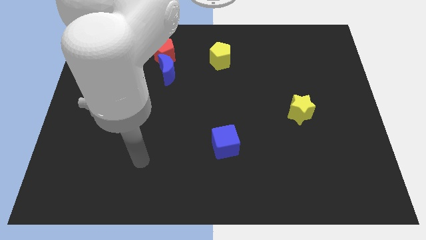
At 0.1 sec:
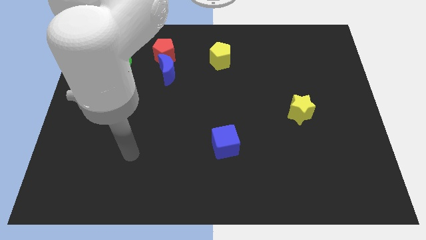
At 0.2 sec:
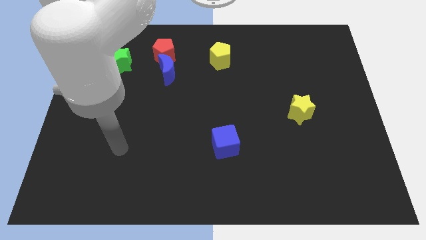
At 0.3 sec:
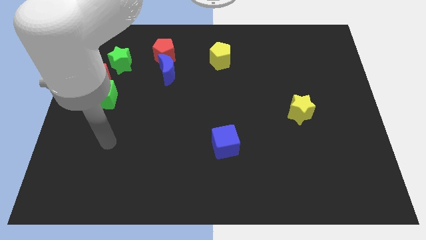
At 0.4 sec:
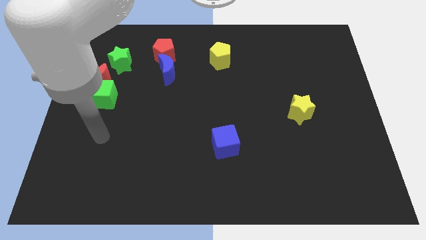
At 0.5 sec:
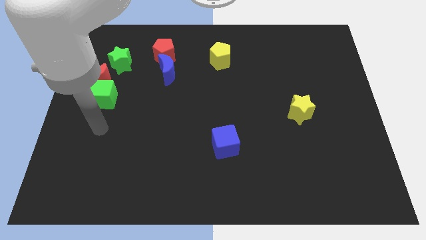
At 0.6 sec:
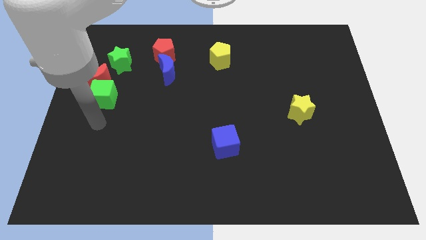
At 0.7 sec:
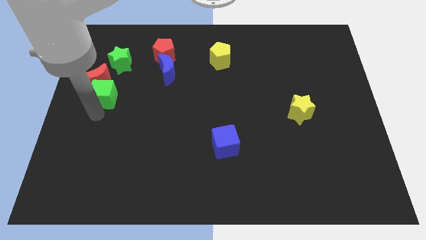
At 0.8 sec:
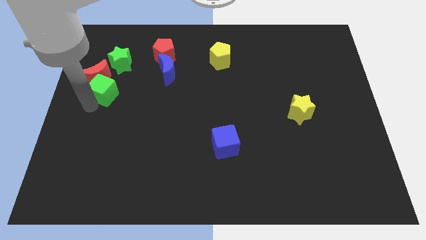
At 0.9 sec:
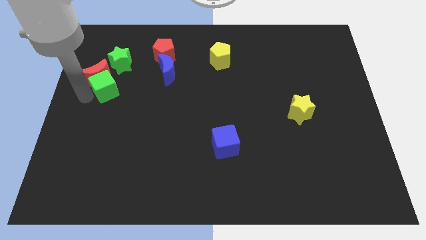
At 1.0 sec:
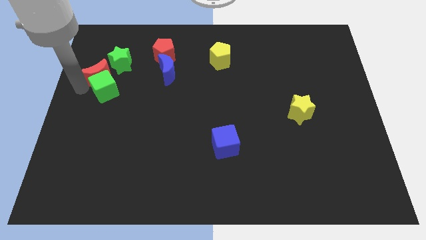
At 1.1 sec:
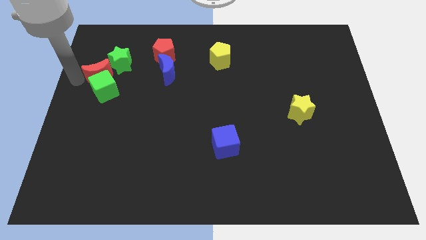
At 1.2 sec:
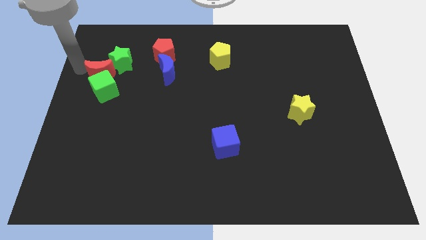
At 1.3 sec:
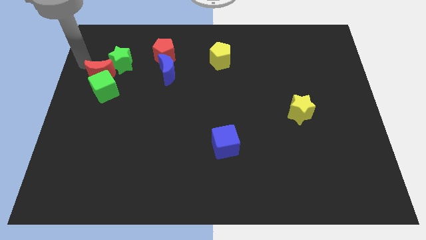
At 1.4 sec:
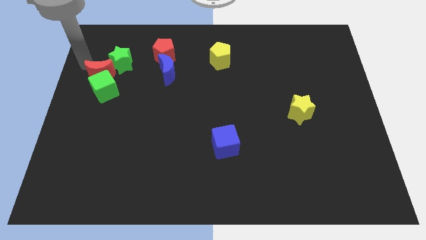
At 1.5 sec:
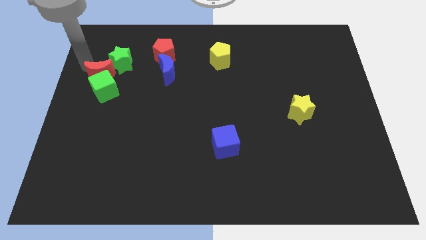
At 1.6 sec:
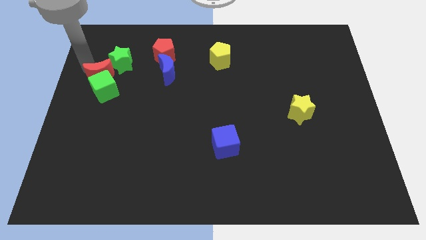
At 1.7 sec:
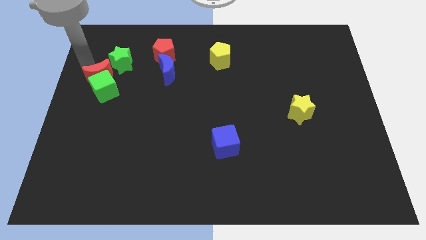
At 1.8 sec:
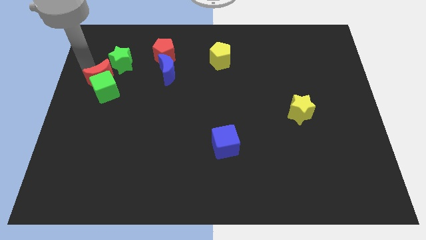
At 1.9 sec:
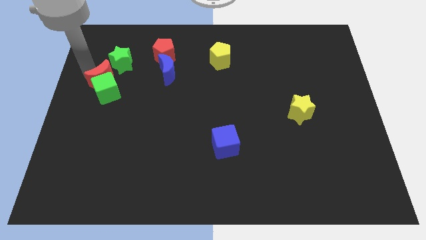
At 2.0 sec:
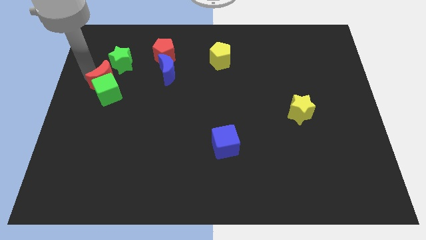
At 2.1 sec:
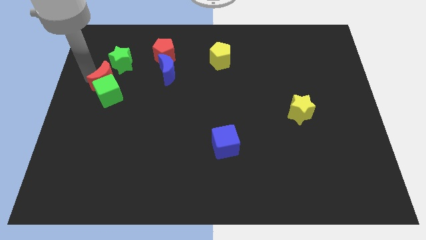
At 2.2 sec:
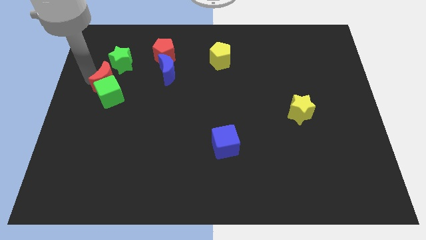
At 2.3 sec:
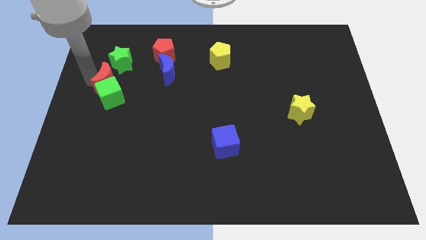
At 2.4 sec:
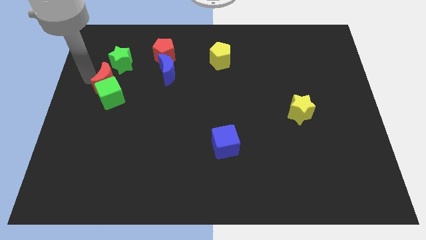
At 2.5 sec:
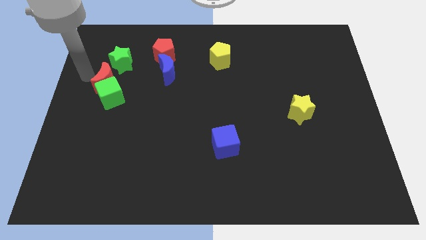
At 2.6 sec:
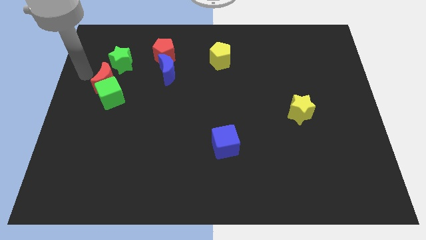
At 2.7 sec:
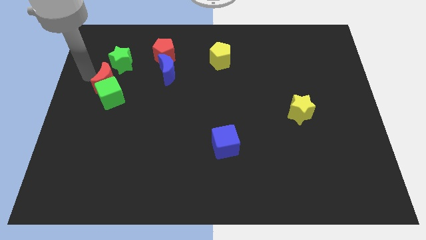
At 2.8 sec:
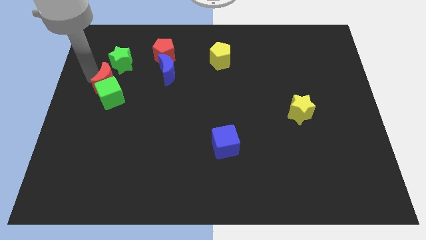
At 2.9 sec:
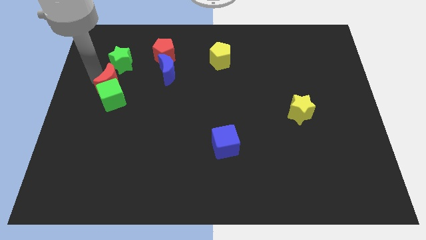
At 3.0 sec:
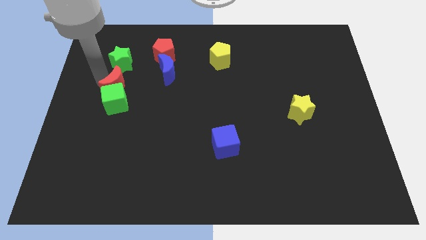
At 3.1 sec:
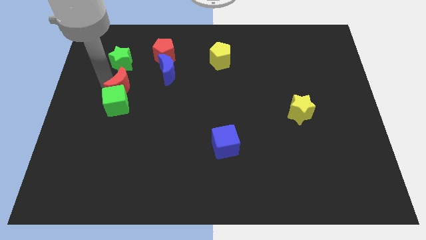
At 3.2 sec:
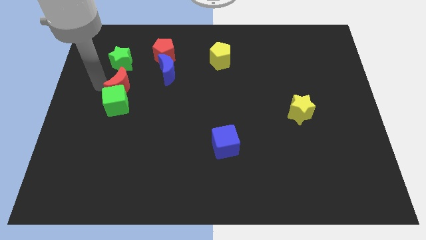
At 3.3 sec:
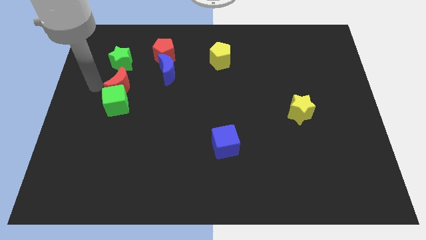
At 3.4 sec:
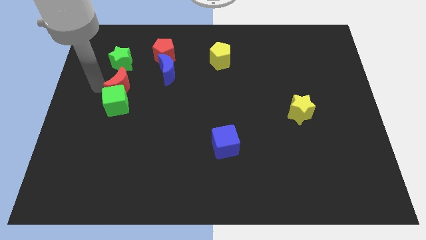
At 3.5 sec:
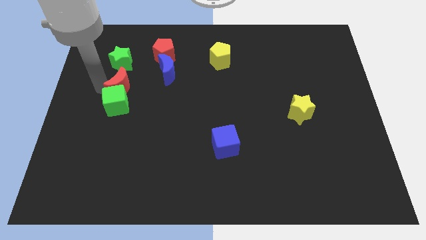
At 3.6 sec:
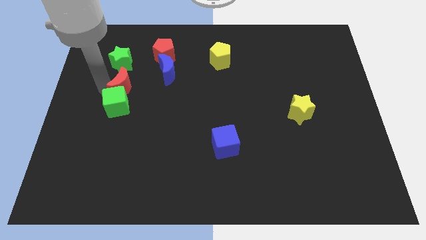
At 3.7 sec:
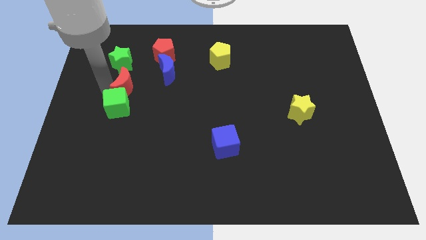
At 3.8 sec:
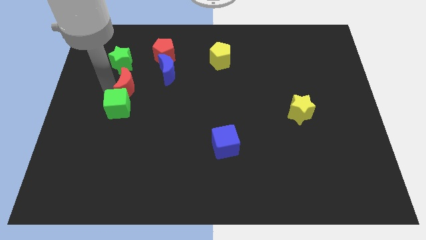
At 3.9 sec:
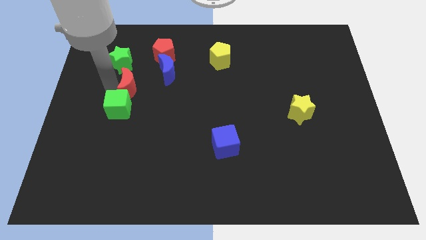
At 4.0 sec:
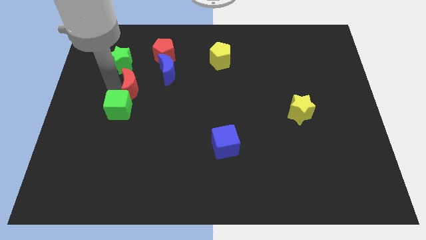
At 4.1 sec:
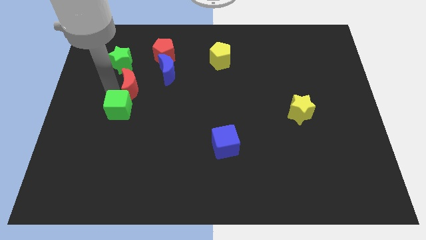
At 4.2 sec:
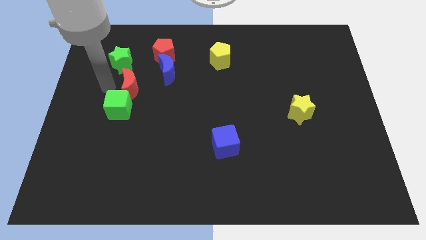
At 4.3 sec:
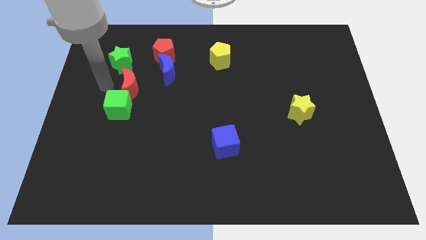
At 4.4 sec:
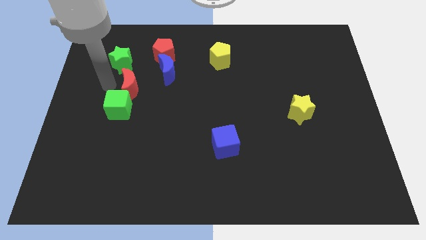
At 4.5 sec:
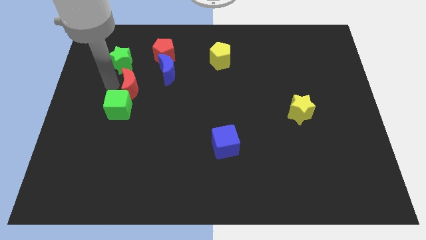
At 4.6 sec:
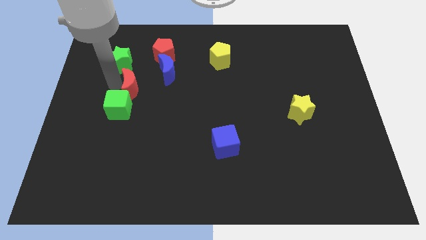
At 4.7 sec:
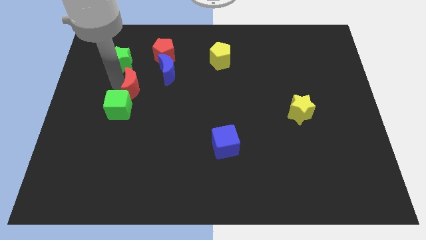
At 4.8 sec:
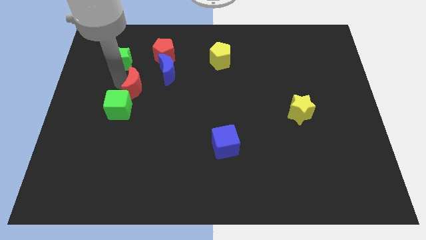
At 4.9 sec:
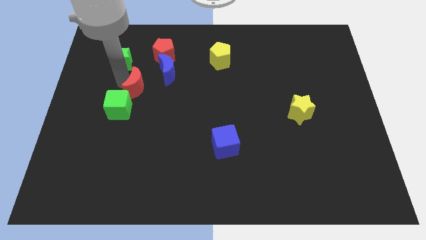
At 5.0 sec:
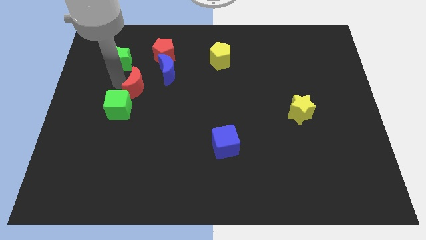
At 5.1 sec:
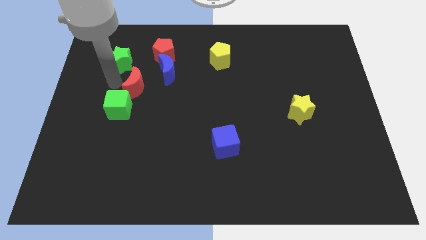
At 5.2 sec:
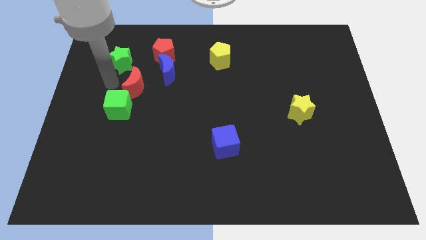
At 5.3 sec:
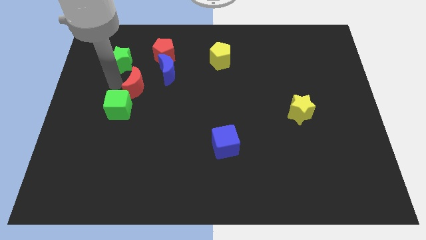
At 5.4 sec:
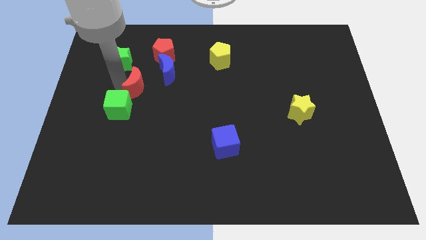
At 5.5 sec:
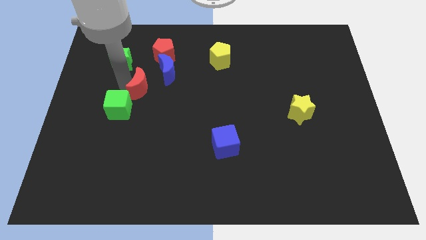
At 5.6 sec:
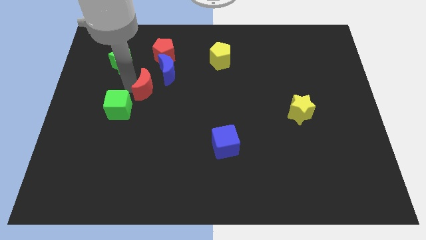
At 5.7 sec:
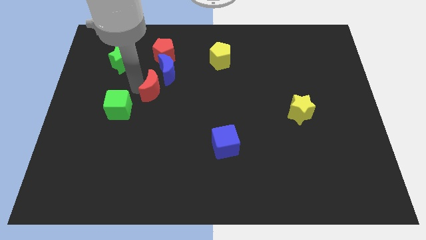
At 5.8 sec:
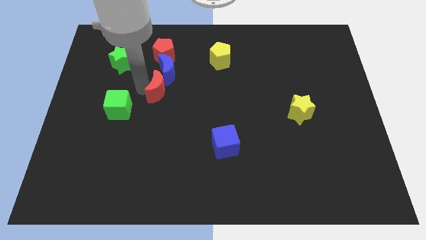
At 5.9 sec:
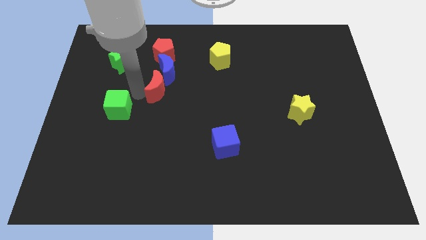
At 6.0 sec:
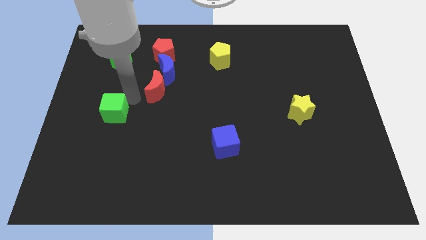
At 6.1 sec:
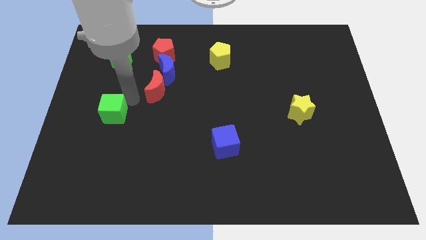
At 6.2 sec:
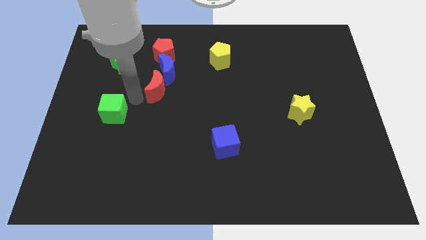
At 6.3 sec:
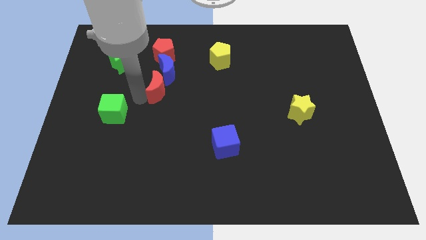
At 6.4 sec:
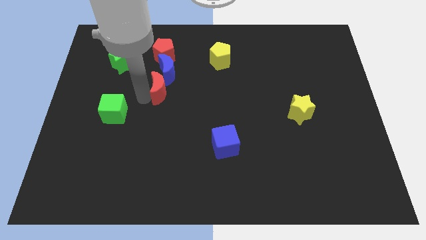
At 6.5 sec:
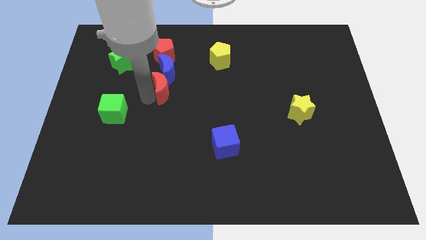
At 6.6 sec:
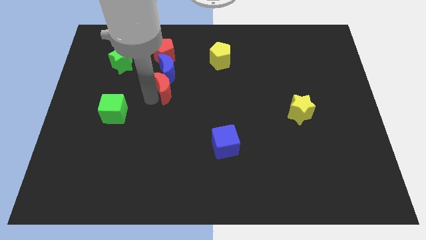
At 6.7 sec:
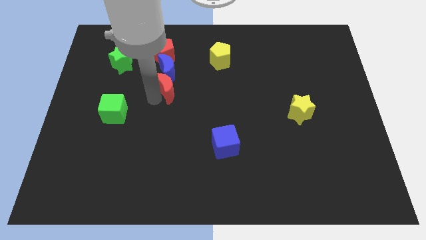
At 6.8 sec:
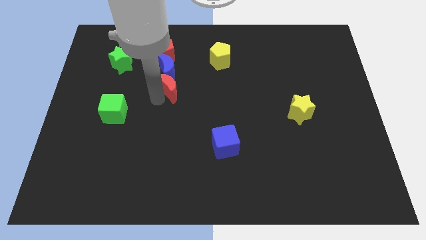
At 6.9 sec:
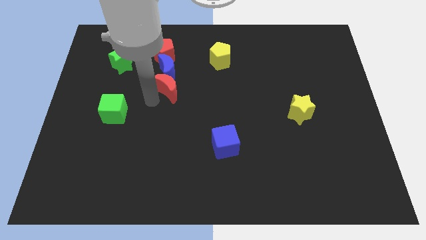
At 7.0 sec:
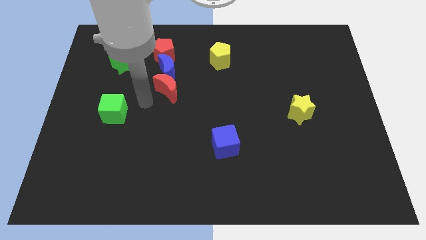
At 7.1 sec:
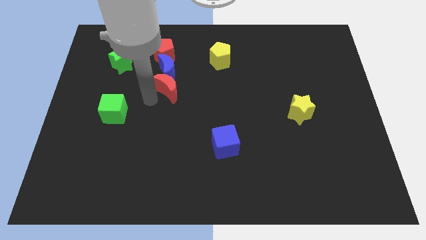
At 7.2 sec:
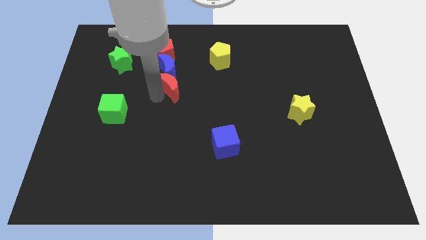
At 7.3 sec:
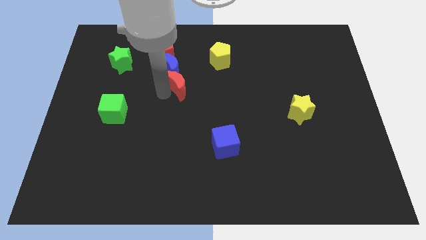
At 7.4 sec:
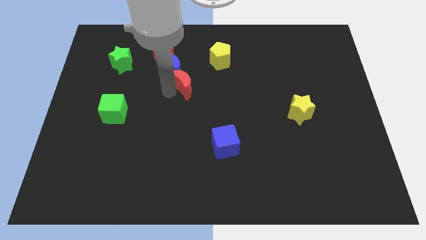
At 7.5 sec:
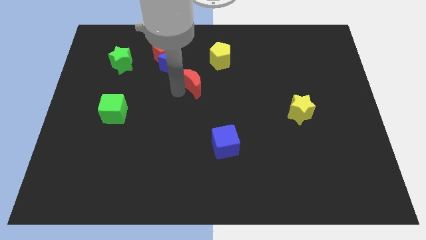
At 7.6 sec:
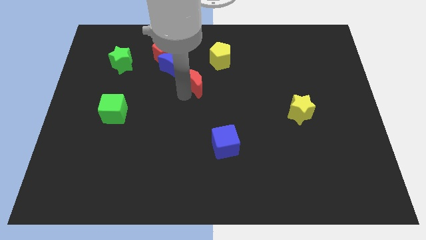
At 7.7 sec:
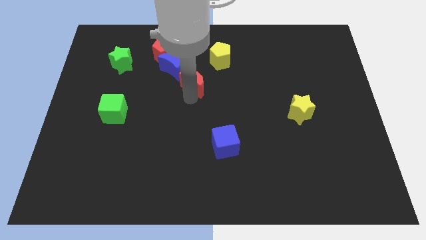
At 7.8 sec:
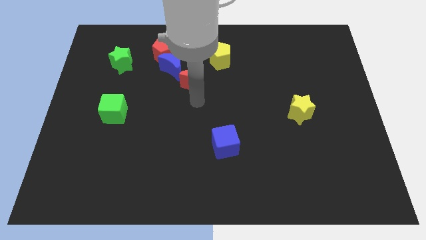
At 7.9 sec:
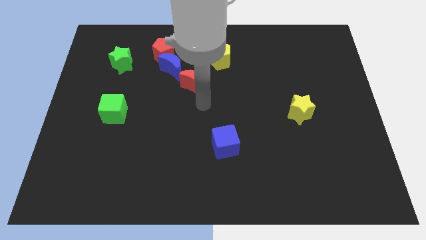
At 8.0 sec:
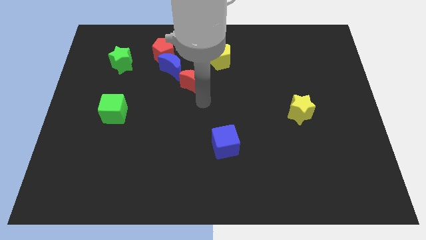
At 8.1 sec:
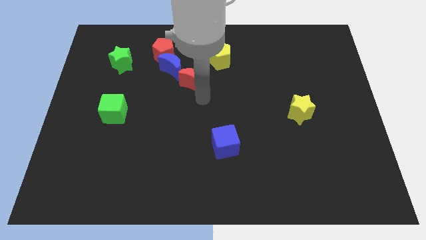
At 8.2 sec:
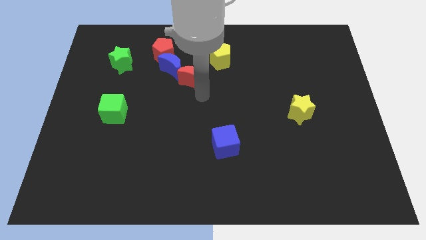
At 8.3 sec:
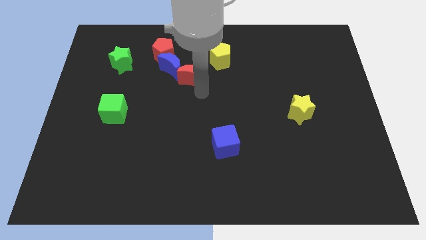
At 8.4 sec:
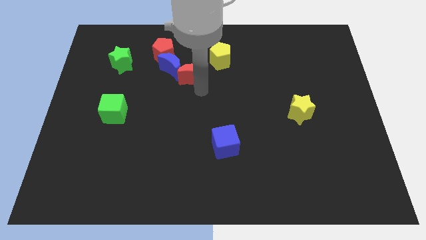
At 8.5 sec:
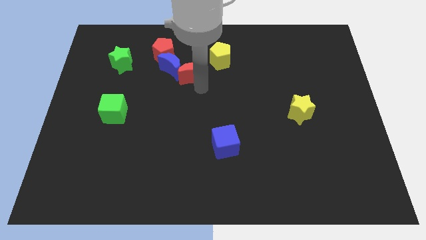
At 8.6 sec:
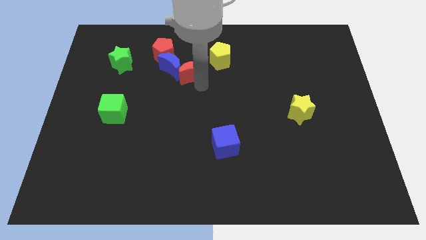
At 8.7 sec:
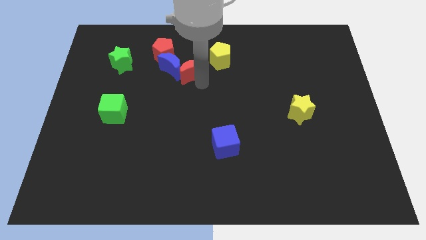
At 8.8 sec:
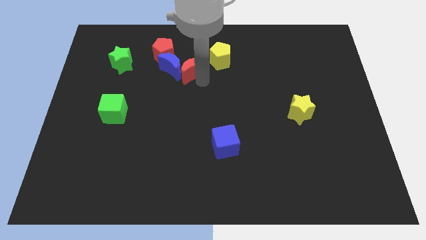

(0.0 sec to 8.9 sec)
move the red moon just left of the yellow pentagon
